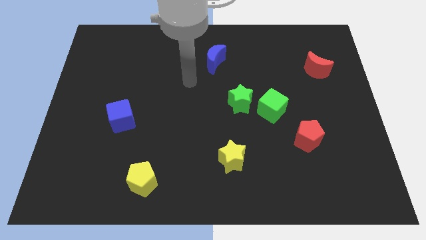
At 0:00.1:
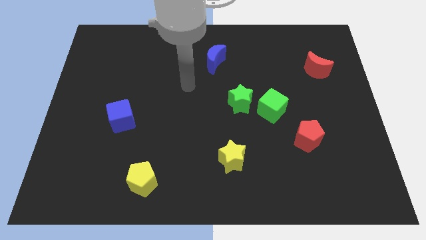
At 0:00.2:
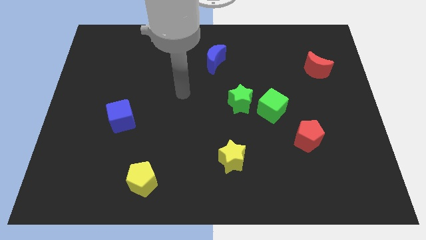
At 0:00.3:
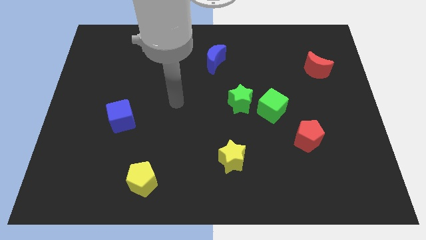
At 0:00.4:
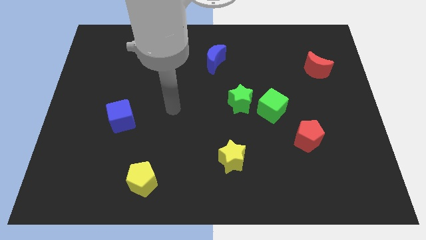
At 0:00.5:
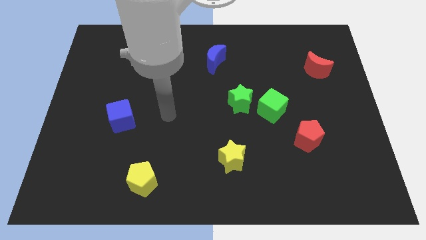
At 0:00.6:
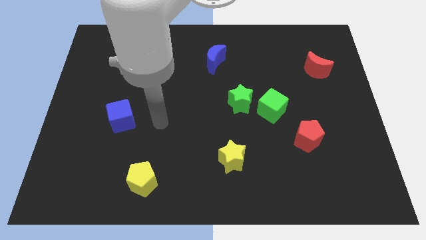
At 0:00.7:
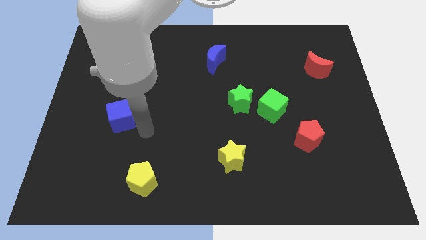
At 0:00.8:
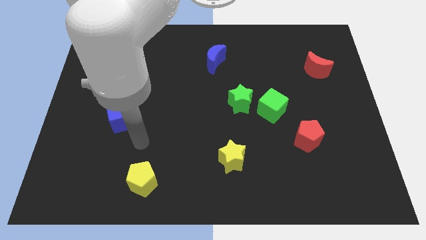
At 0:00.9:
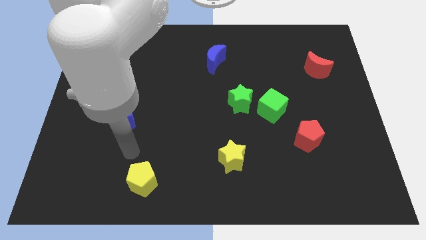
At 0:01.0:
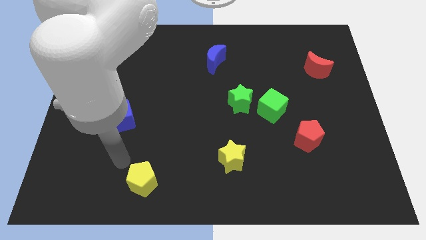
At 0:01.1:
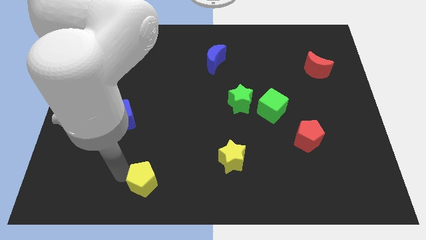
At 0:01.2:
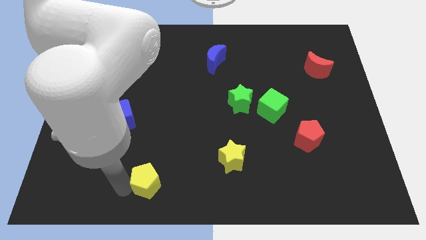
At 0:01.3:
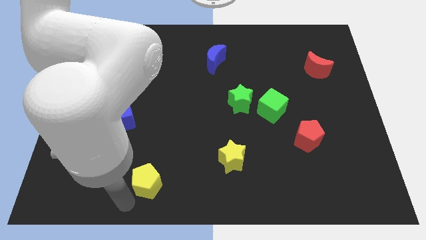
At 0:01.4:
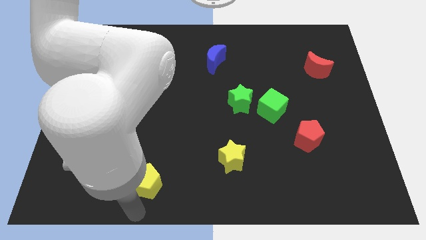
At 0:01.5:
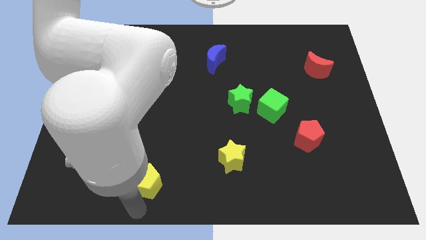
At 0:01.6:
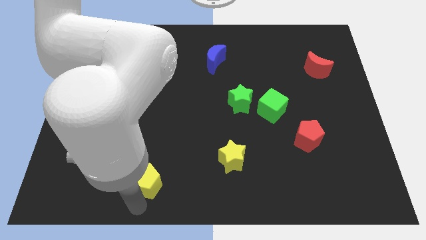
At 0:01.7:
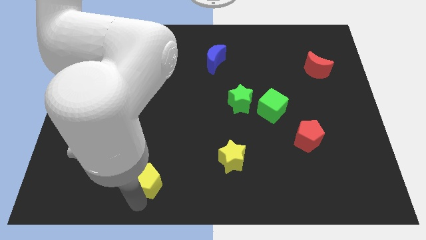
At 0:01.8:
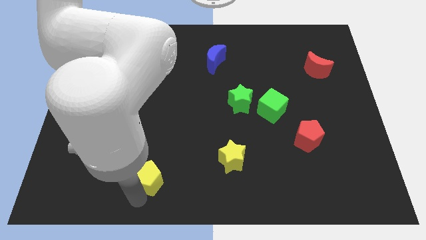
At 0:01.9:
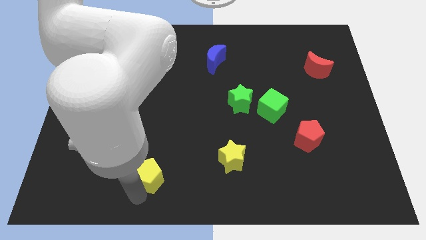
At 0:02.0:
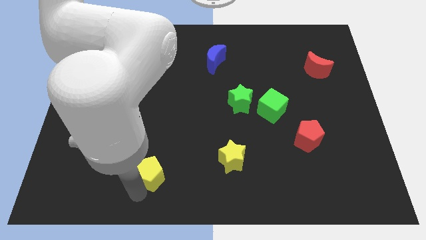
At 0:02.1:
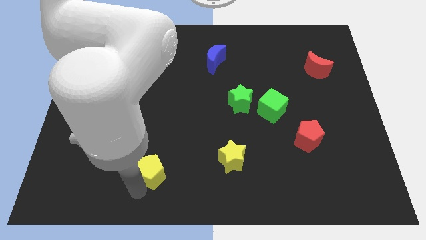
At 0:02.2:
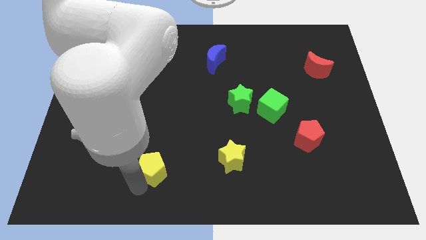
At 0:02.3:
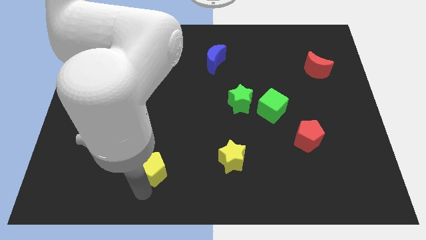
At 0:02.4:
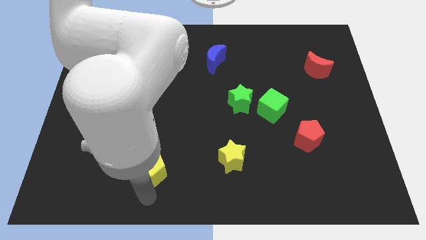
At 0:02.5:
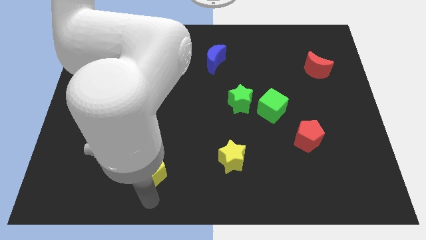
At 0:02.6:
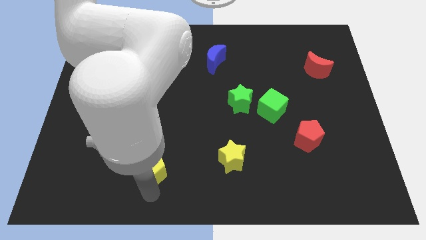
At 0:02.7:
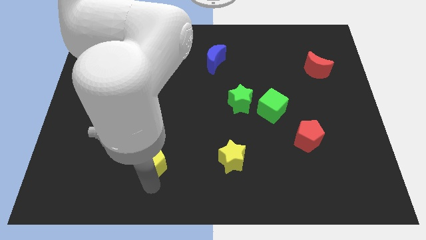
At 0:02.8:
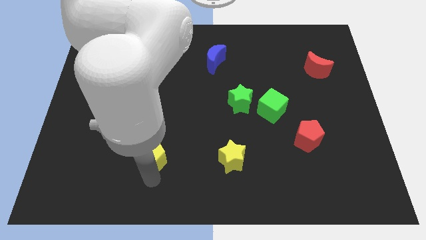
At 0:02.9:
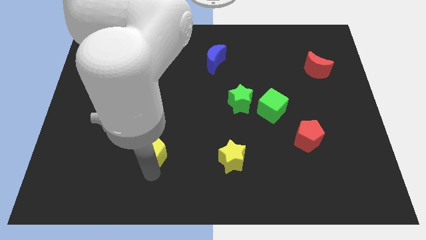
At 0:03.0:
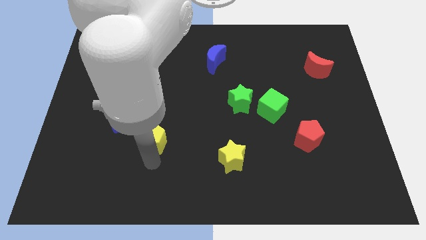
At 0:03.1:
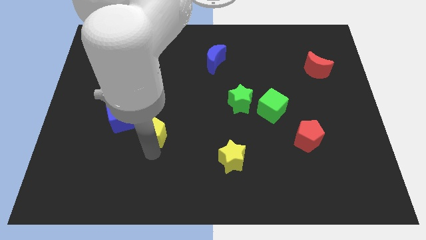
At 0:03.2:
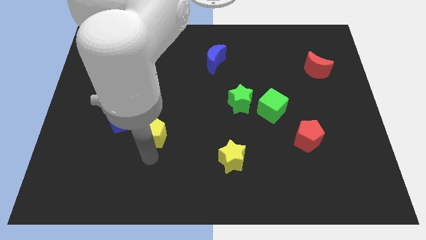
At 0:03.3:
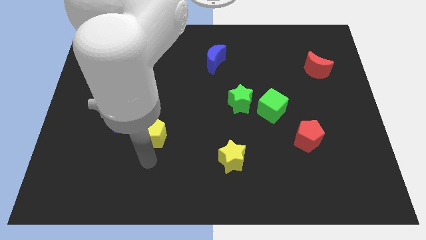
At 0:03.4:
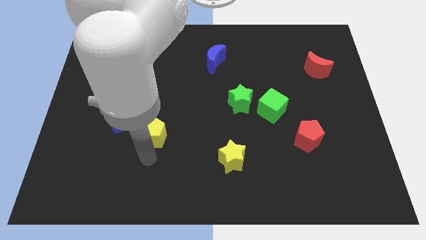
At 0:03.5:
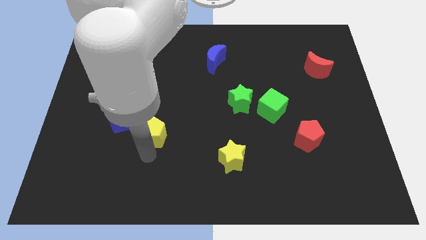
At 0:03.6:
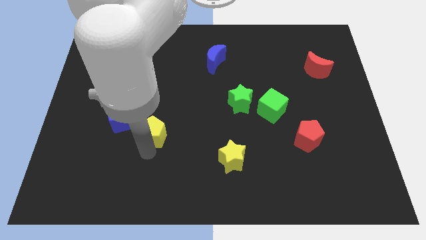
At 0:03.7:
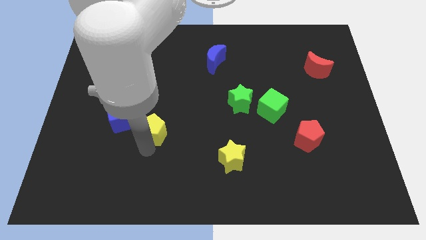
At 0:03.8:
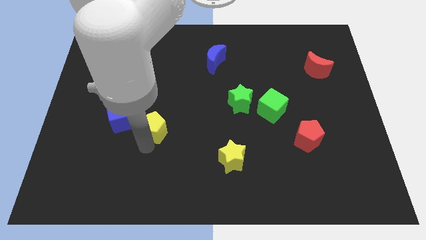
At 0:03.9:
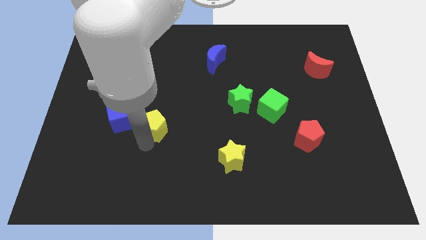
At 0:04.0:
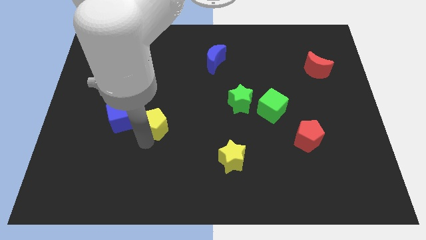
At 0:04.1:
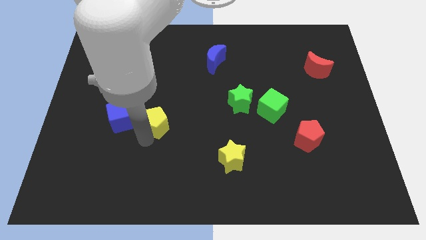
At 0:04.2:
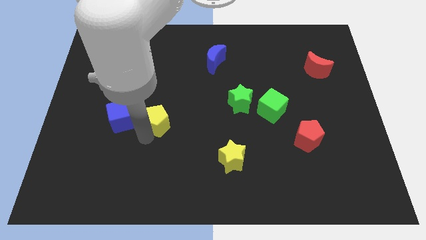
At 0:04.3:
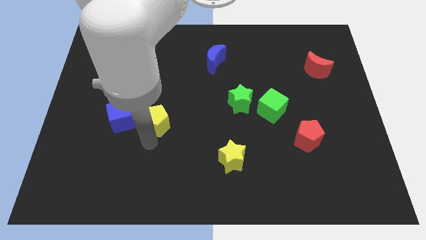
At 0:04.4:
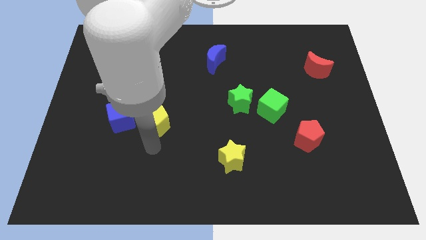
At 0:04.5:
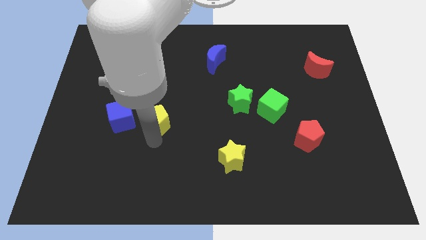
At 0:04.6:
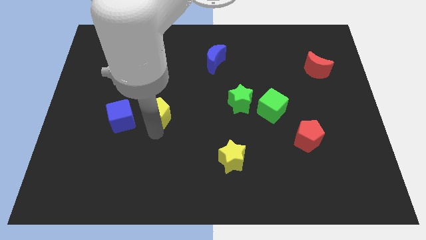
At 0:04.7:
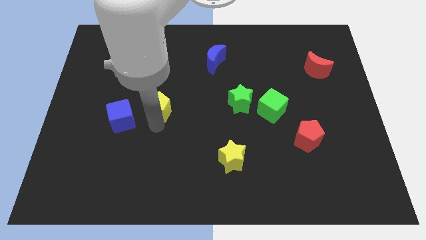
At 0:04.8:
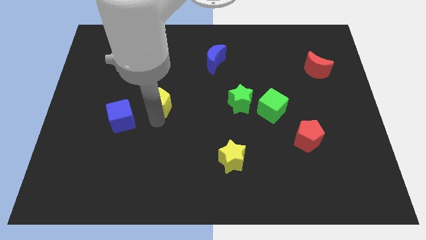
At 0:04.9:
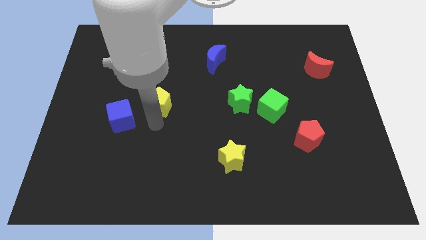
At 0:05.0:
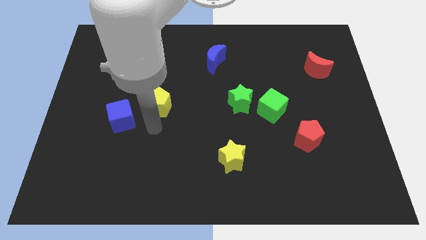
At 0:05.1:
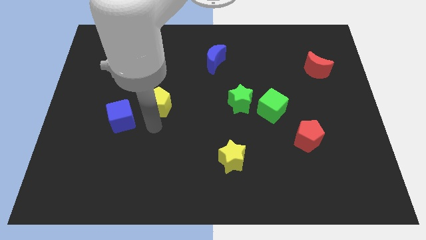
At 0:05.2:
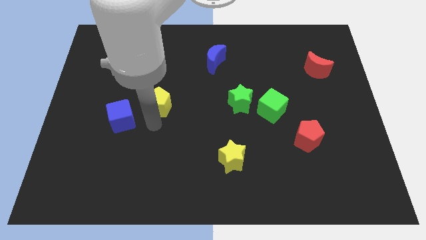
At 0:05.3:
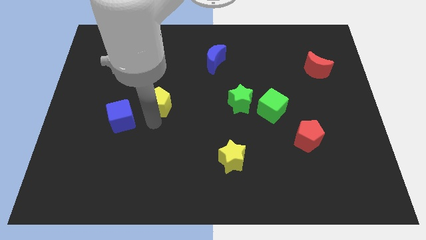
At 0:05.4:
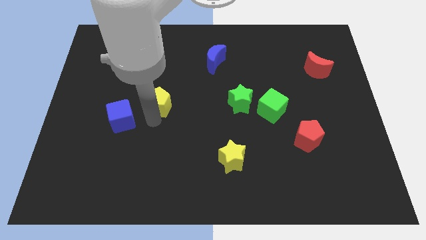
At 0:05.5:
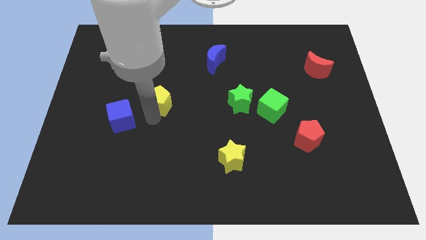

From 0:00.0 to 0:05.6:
slide the yellow pentagon up

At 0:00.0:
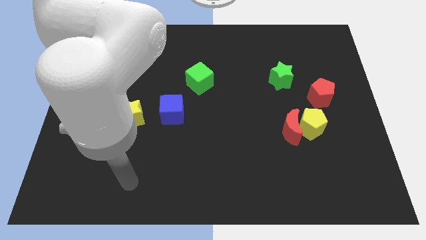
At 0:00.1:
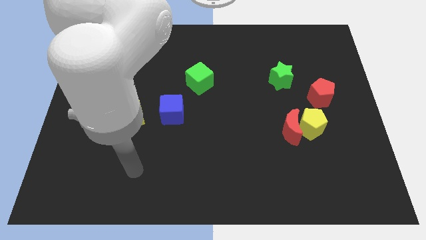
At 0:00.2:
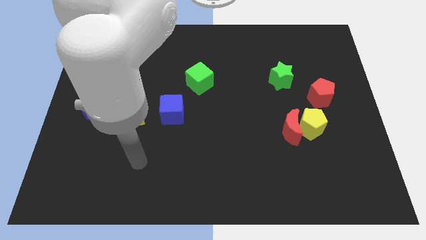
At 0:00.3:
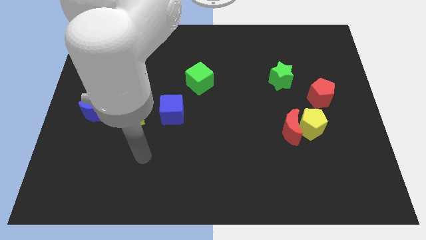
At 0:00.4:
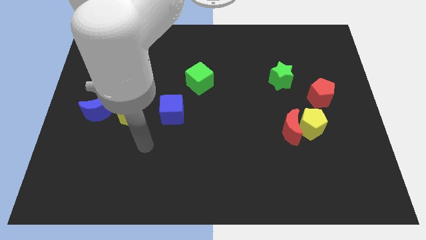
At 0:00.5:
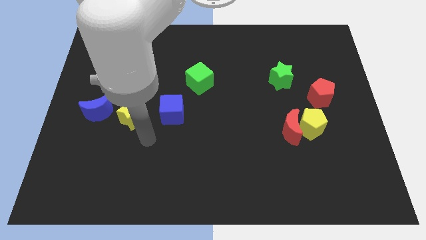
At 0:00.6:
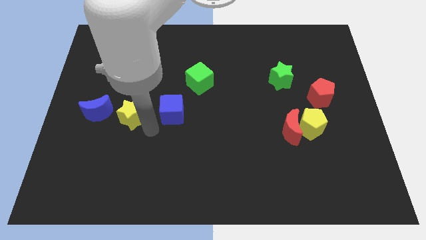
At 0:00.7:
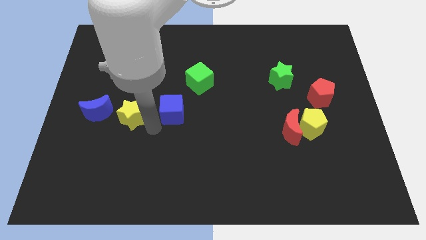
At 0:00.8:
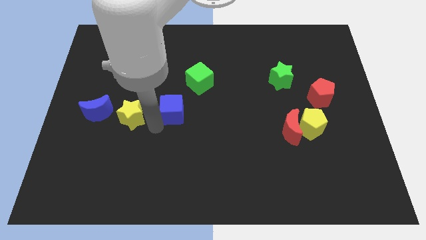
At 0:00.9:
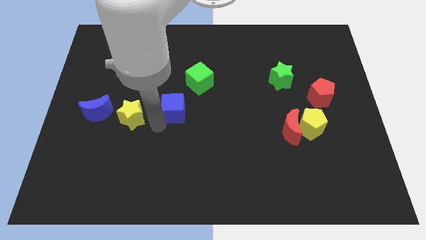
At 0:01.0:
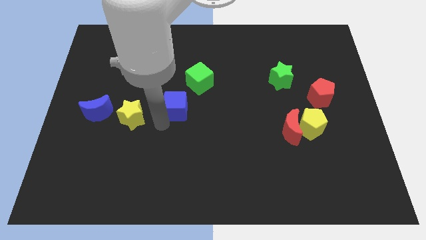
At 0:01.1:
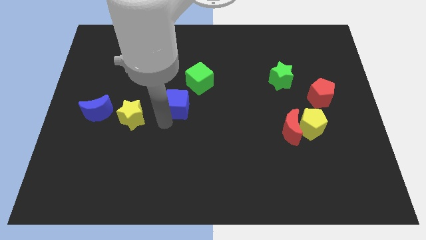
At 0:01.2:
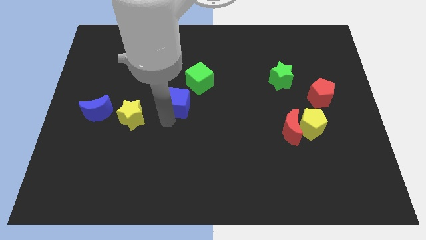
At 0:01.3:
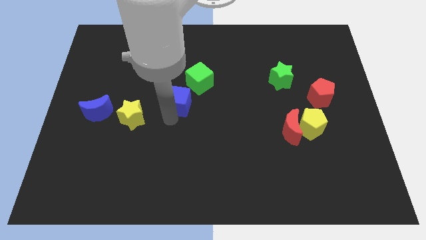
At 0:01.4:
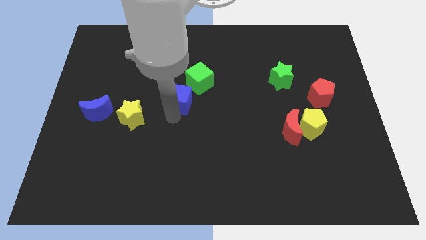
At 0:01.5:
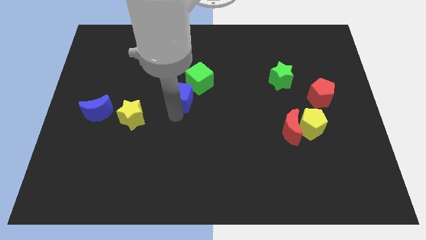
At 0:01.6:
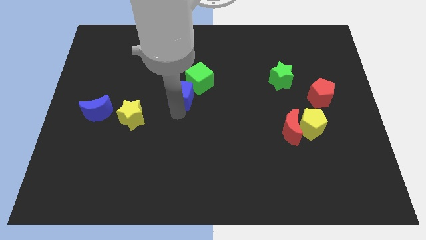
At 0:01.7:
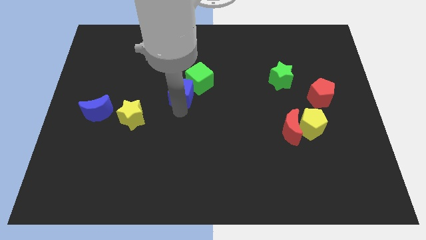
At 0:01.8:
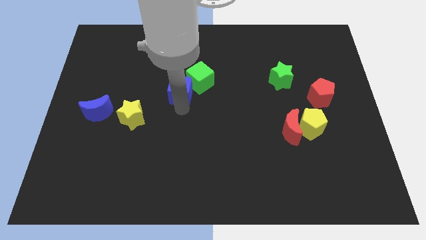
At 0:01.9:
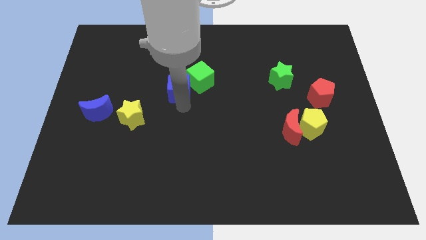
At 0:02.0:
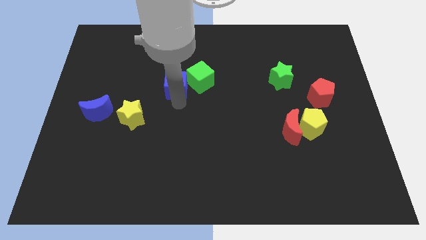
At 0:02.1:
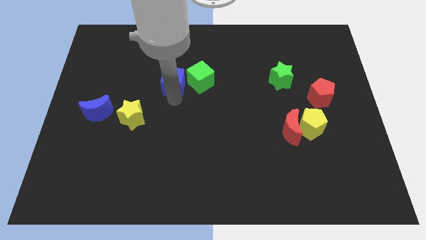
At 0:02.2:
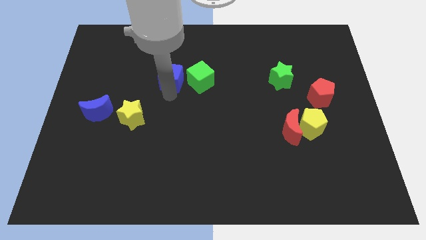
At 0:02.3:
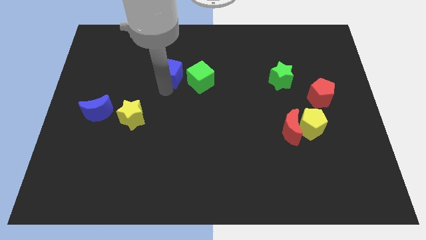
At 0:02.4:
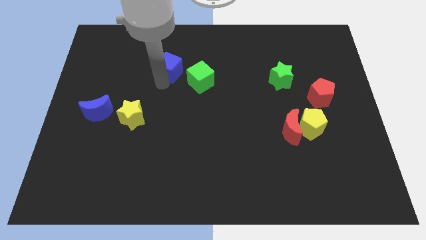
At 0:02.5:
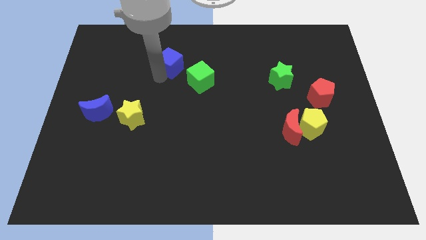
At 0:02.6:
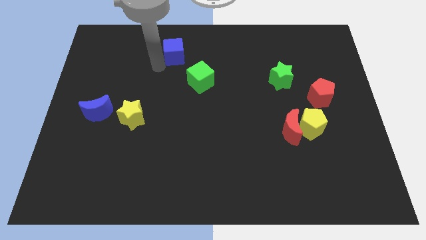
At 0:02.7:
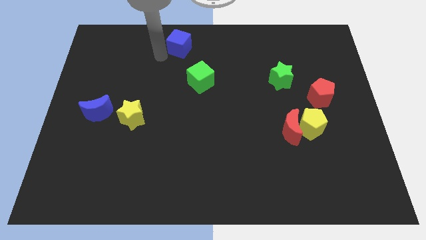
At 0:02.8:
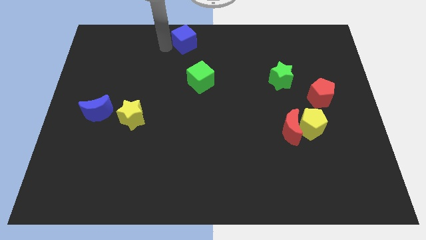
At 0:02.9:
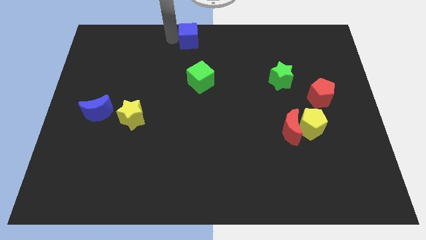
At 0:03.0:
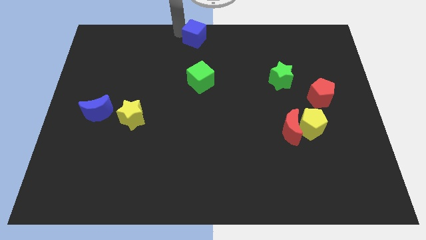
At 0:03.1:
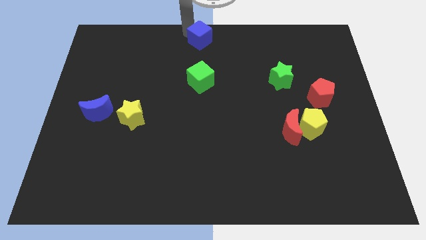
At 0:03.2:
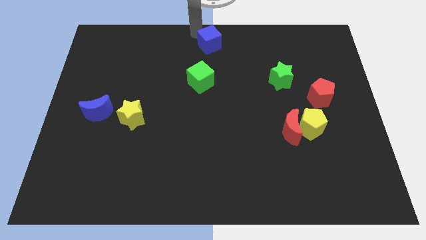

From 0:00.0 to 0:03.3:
move the blue cube upwards and right somewhat
